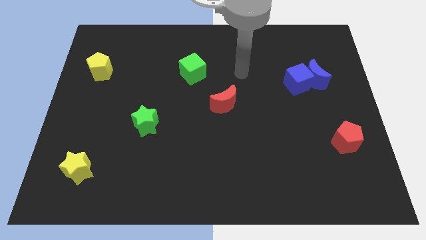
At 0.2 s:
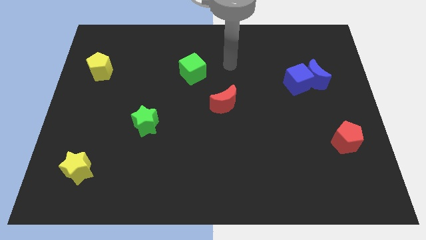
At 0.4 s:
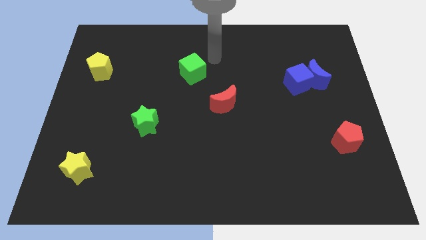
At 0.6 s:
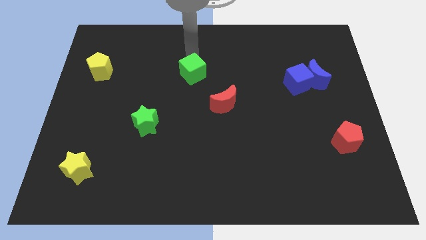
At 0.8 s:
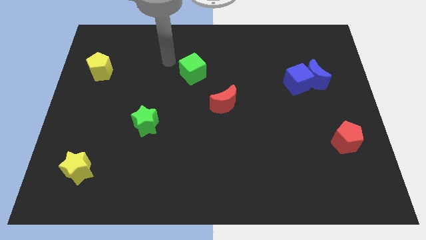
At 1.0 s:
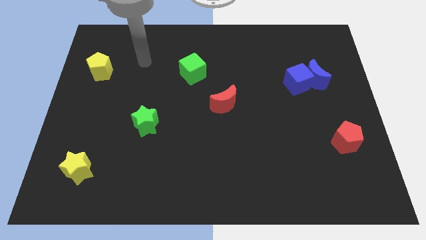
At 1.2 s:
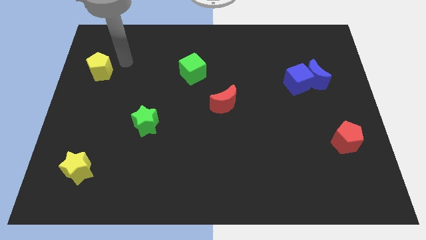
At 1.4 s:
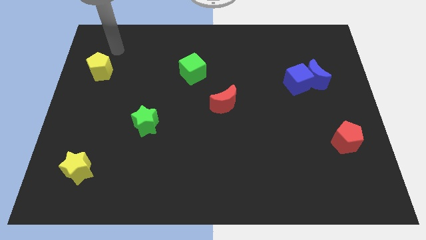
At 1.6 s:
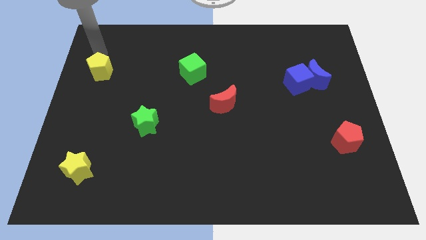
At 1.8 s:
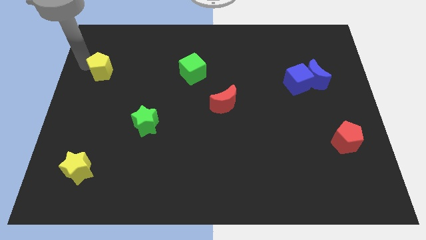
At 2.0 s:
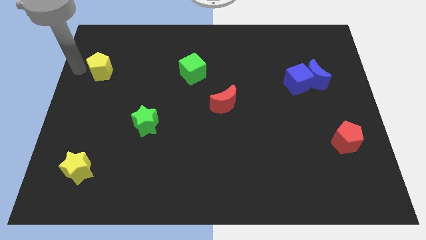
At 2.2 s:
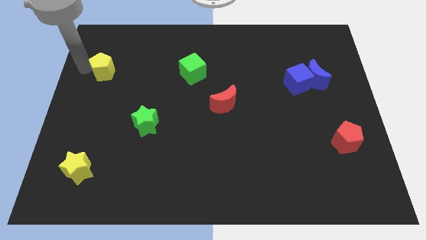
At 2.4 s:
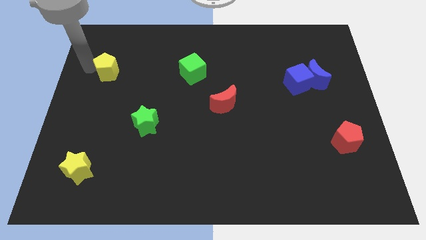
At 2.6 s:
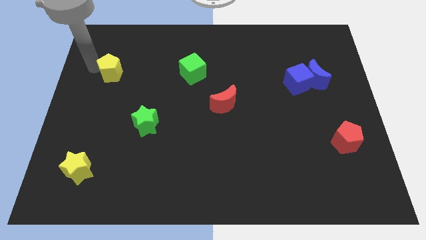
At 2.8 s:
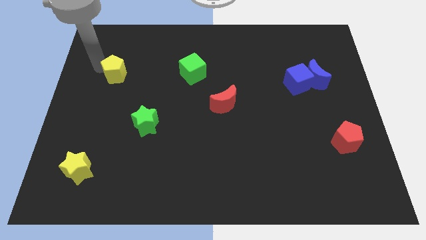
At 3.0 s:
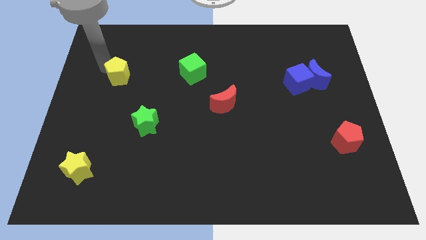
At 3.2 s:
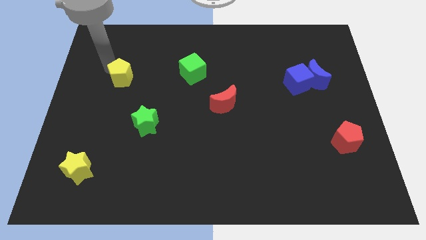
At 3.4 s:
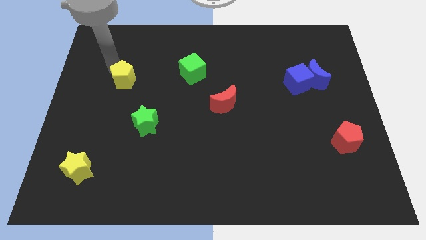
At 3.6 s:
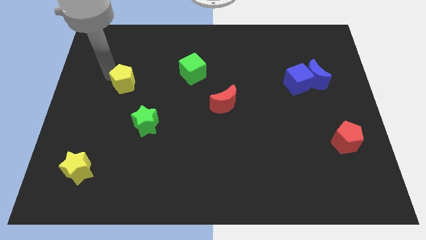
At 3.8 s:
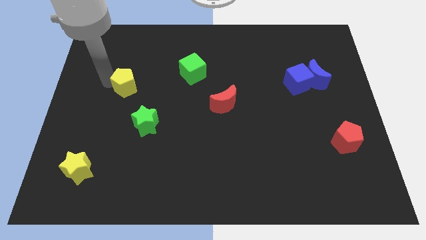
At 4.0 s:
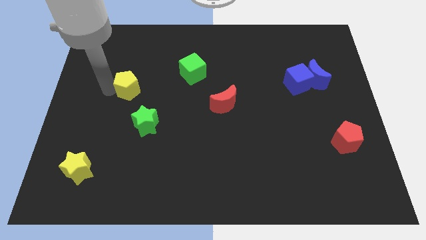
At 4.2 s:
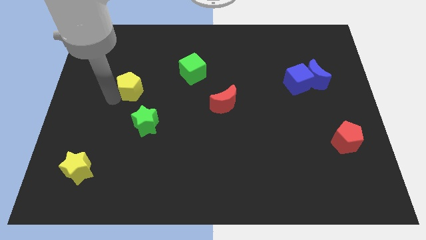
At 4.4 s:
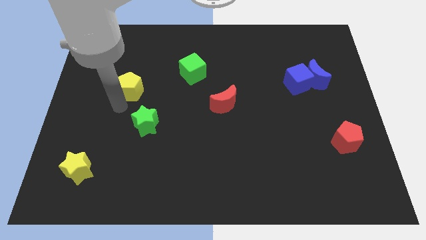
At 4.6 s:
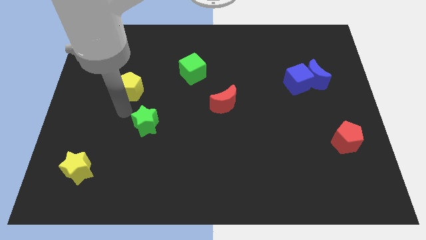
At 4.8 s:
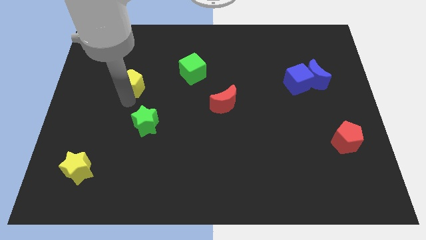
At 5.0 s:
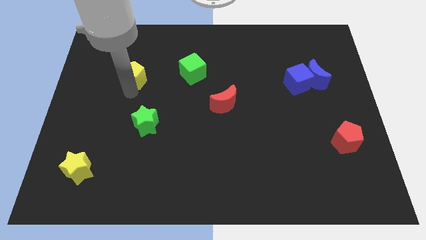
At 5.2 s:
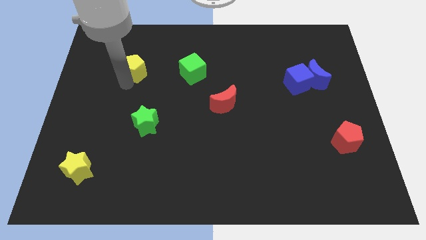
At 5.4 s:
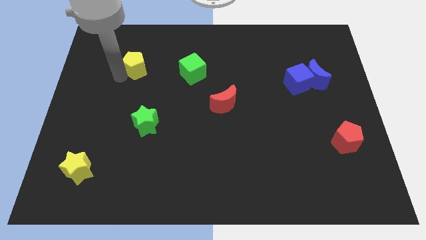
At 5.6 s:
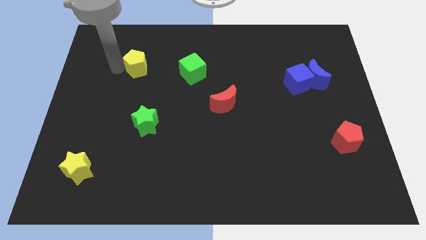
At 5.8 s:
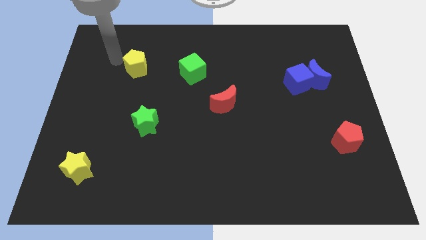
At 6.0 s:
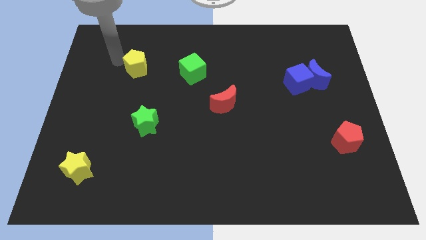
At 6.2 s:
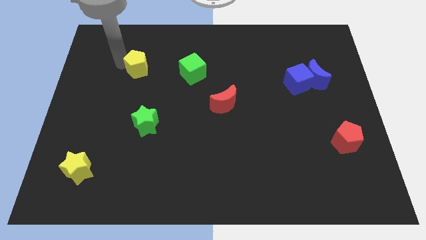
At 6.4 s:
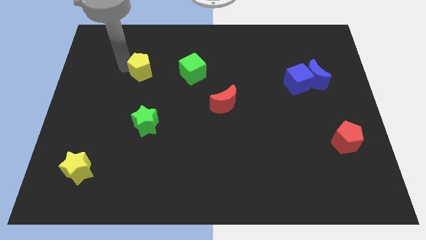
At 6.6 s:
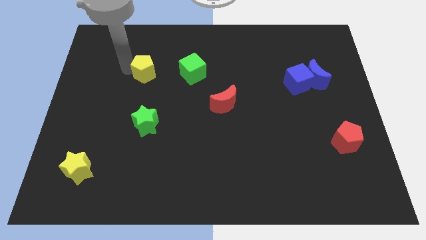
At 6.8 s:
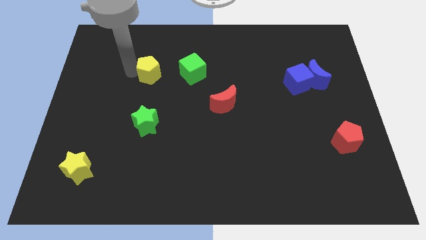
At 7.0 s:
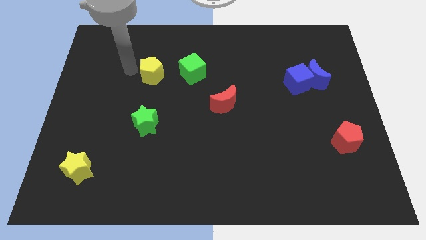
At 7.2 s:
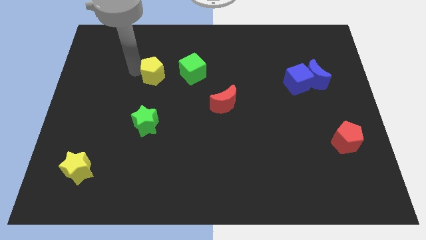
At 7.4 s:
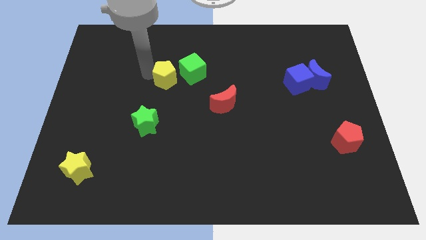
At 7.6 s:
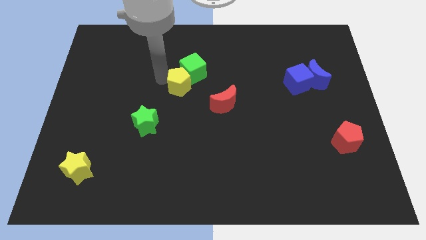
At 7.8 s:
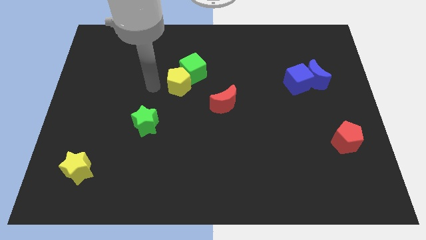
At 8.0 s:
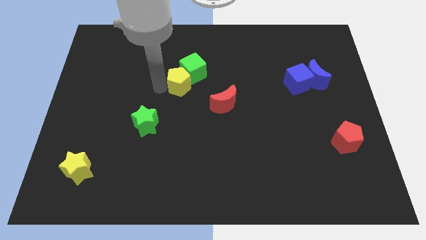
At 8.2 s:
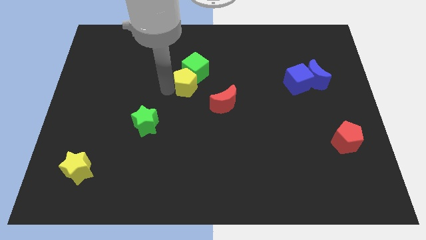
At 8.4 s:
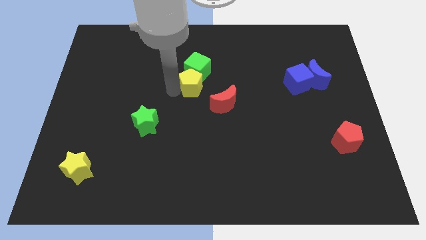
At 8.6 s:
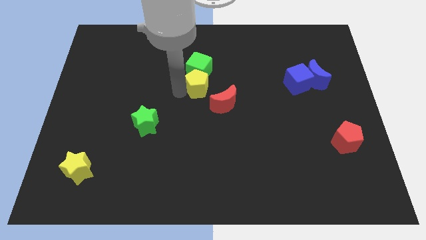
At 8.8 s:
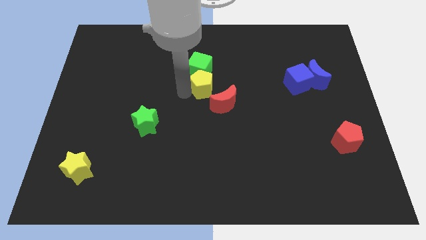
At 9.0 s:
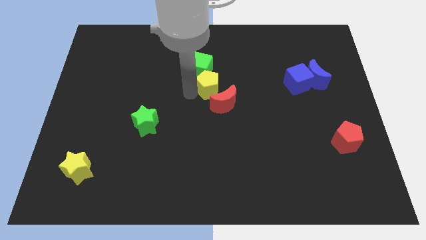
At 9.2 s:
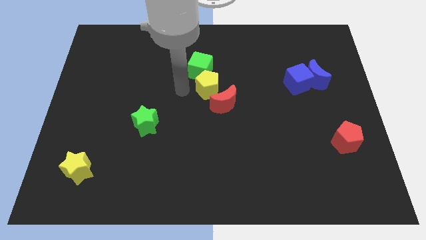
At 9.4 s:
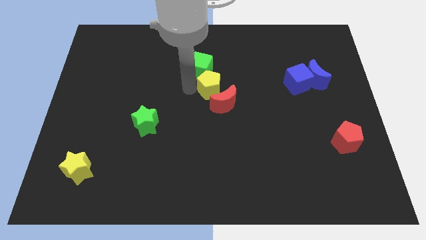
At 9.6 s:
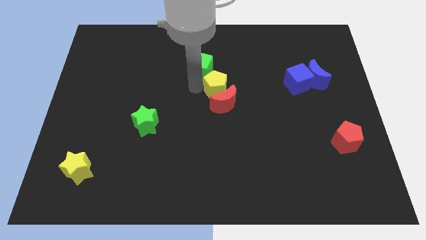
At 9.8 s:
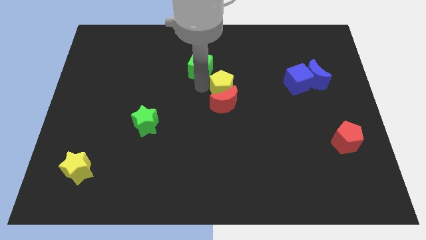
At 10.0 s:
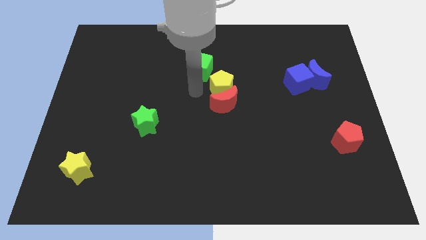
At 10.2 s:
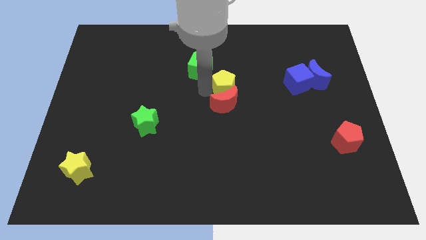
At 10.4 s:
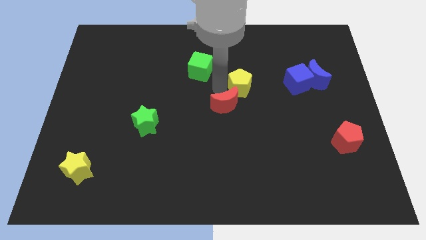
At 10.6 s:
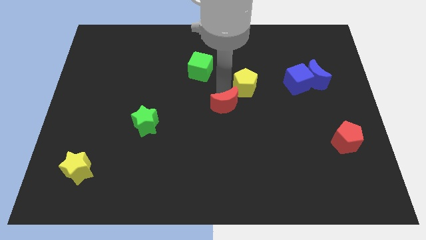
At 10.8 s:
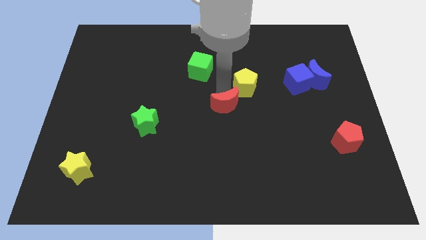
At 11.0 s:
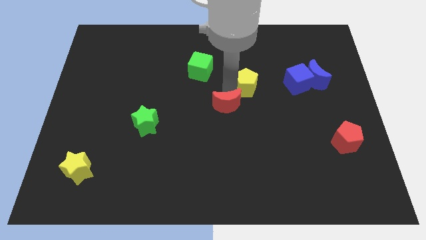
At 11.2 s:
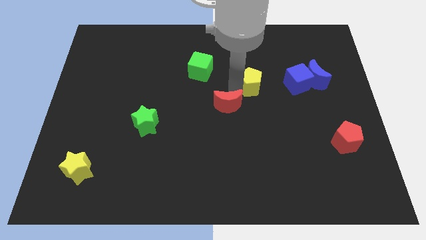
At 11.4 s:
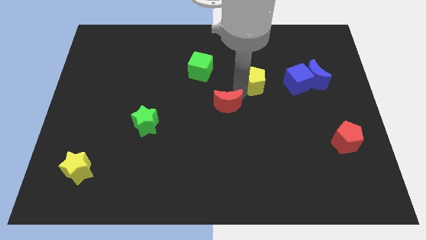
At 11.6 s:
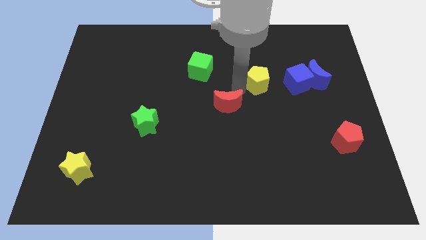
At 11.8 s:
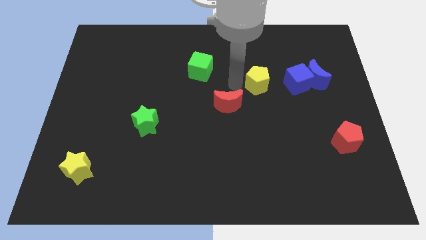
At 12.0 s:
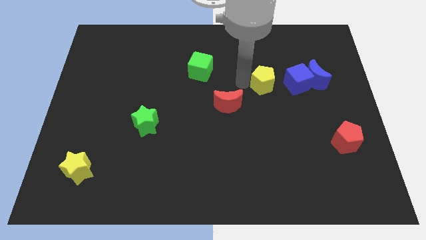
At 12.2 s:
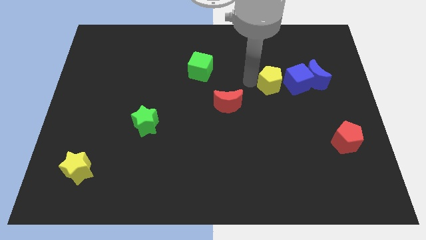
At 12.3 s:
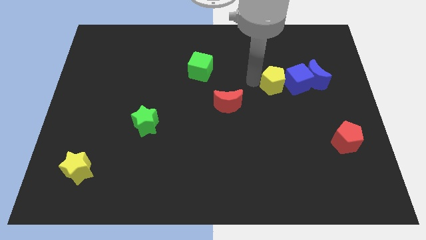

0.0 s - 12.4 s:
move the yellow pentagon next to the blue cube

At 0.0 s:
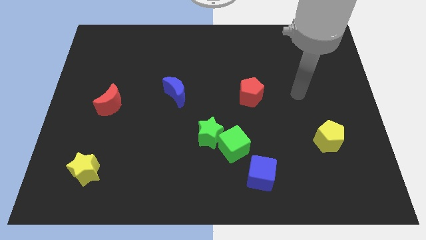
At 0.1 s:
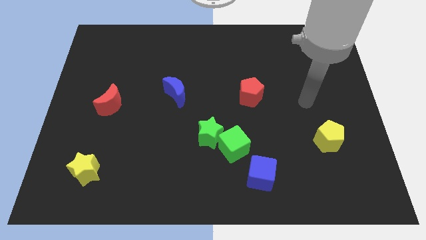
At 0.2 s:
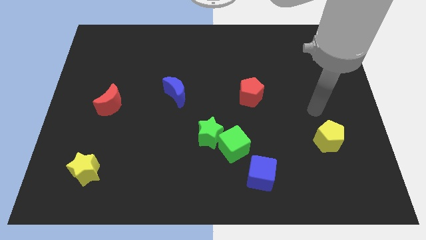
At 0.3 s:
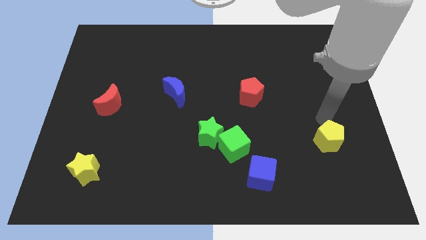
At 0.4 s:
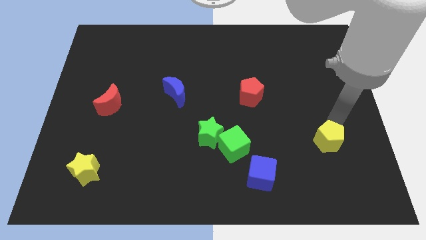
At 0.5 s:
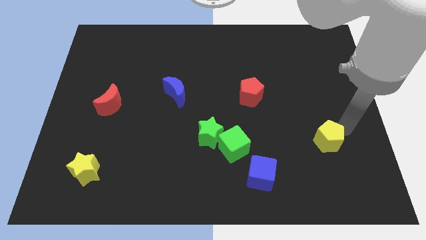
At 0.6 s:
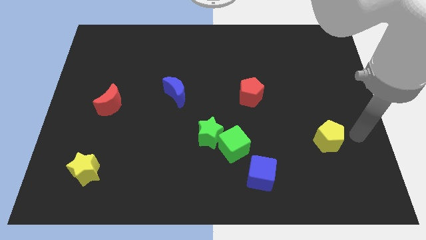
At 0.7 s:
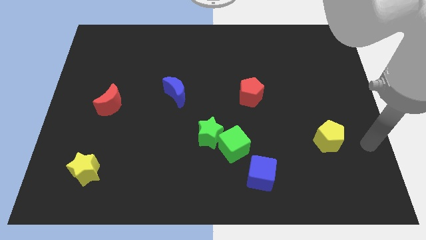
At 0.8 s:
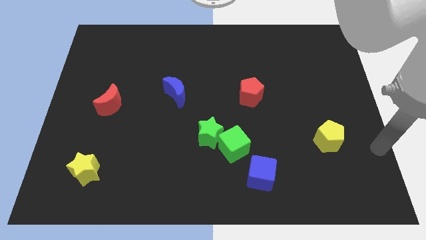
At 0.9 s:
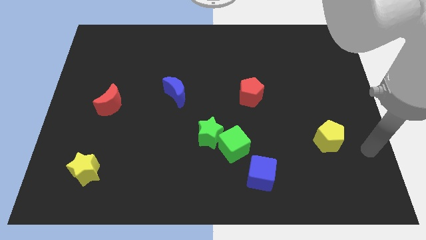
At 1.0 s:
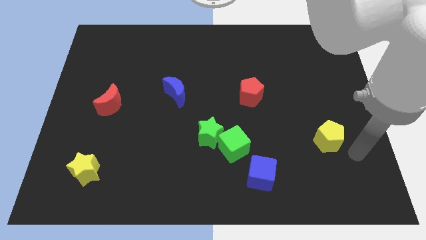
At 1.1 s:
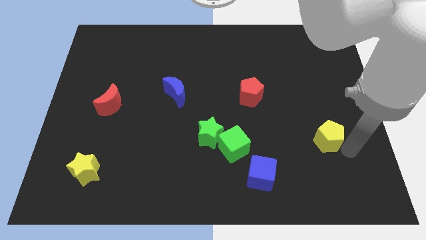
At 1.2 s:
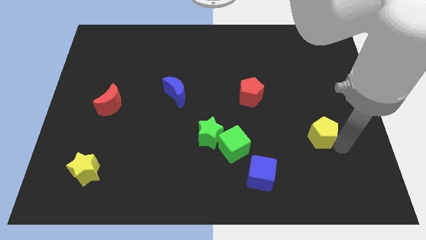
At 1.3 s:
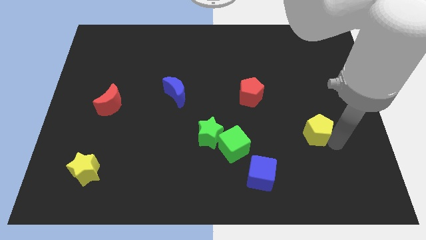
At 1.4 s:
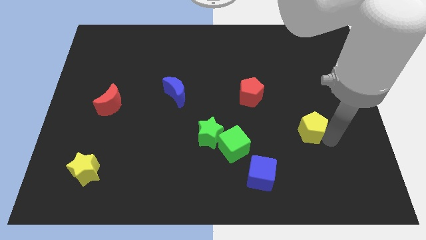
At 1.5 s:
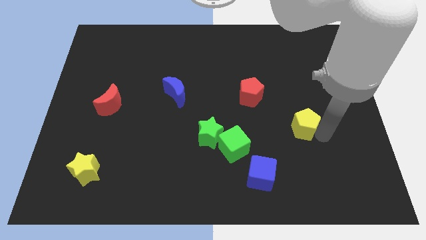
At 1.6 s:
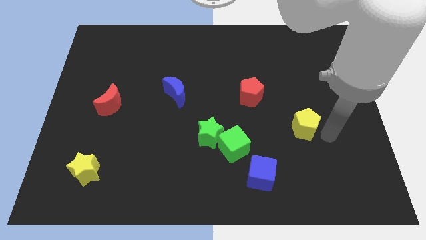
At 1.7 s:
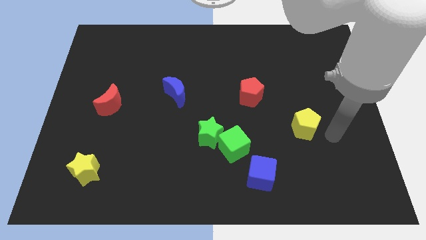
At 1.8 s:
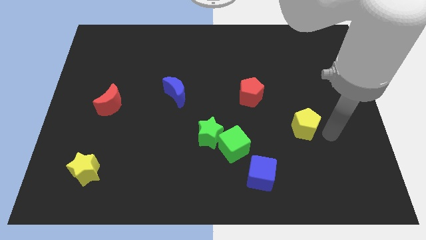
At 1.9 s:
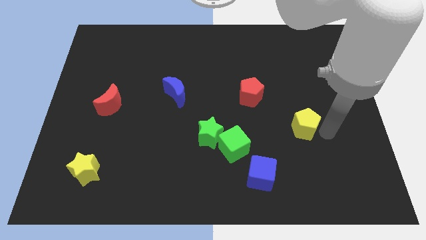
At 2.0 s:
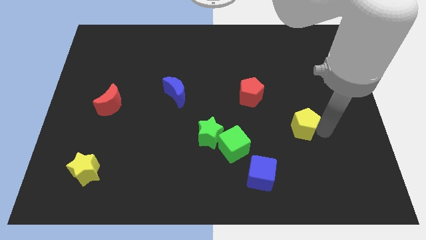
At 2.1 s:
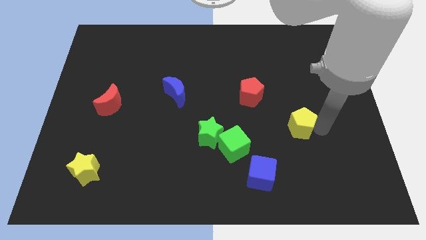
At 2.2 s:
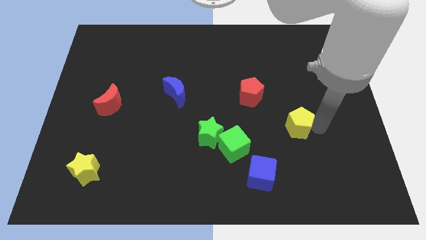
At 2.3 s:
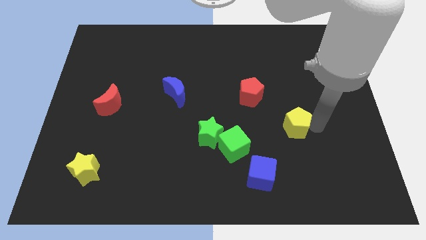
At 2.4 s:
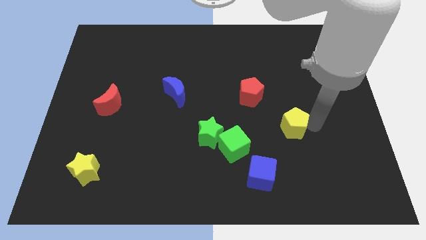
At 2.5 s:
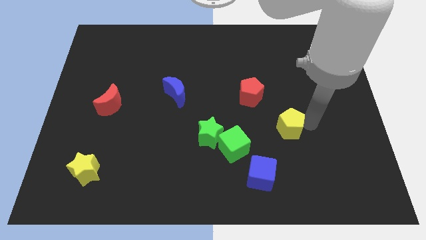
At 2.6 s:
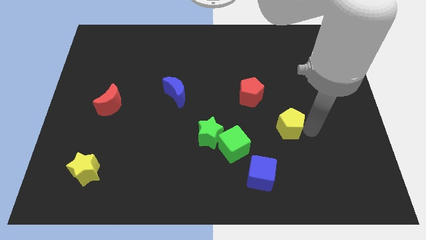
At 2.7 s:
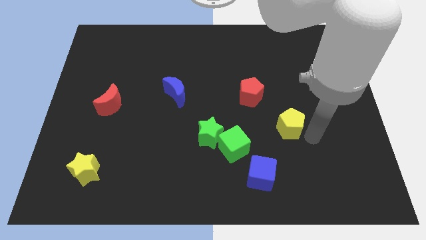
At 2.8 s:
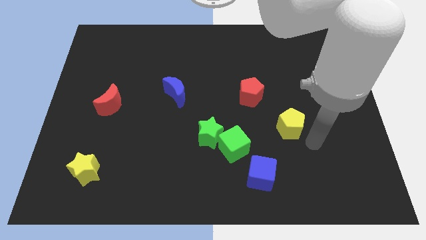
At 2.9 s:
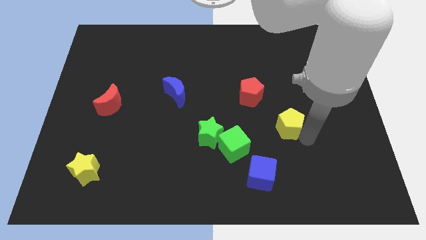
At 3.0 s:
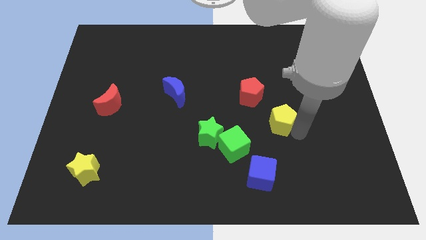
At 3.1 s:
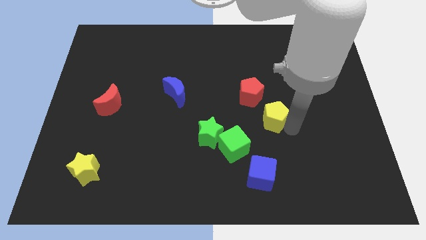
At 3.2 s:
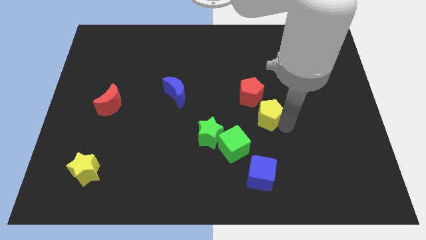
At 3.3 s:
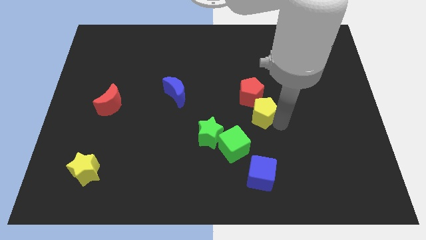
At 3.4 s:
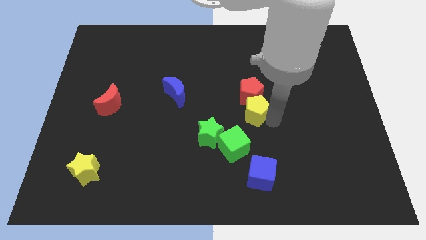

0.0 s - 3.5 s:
slide the yellow pentagon close to the red pentagon
